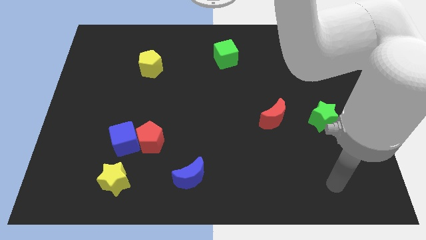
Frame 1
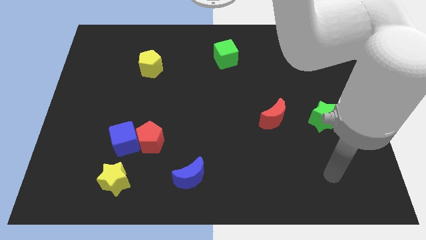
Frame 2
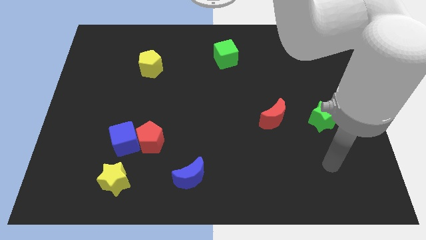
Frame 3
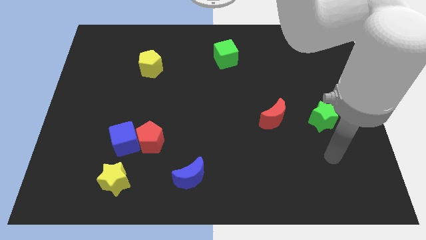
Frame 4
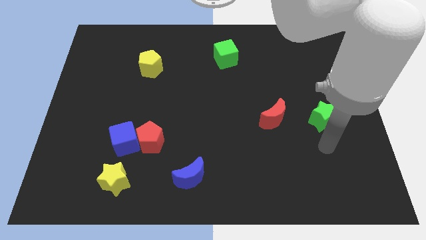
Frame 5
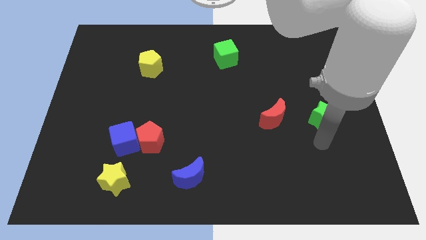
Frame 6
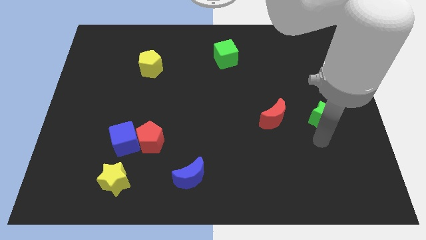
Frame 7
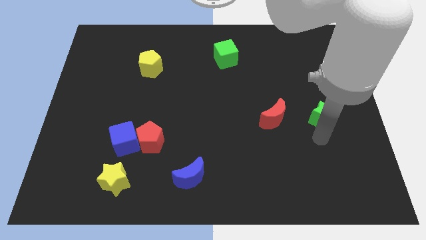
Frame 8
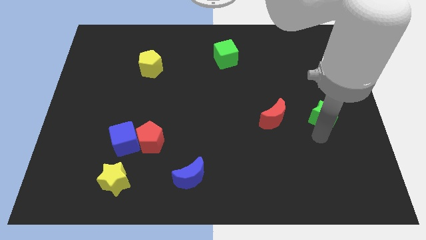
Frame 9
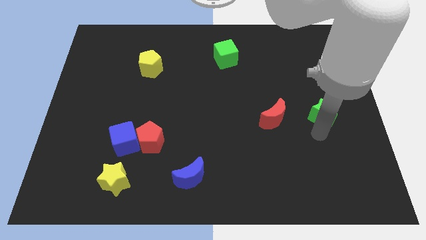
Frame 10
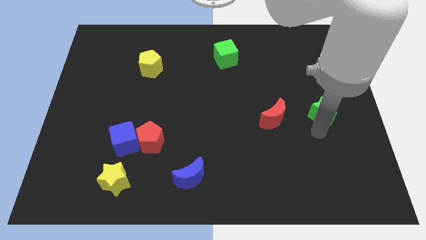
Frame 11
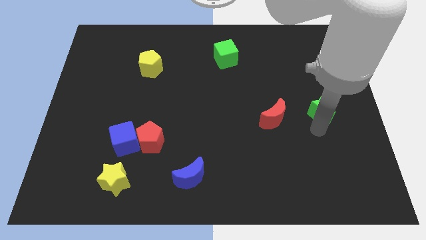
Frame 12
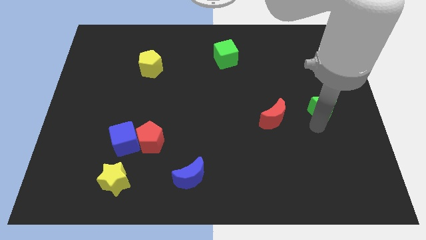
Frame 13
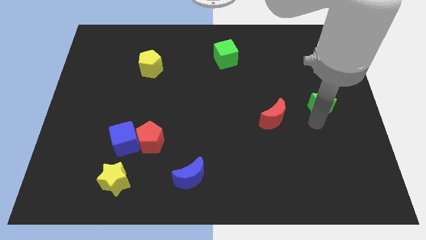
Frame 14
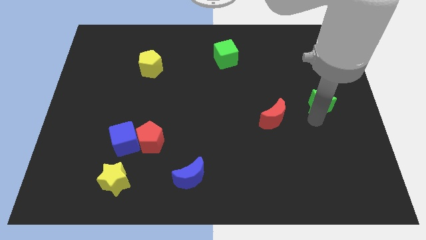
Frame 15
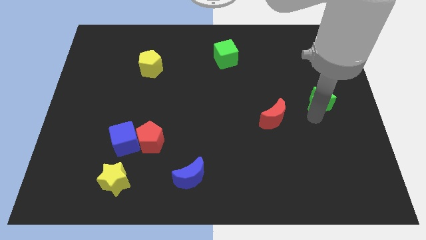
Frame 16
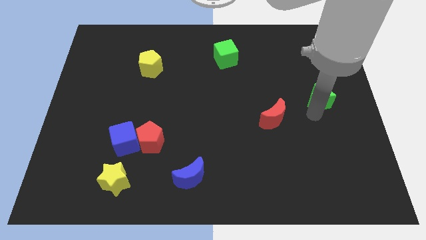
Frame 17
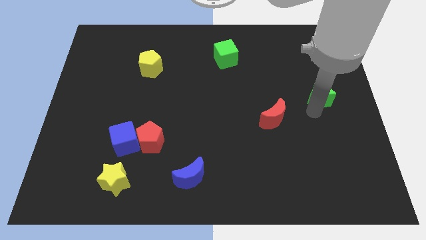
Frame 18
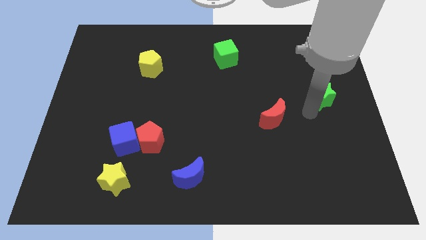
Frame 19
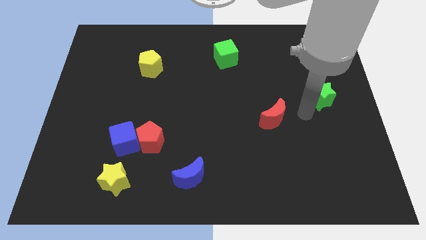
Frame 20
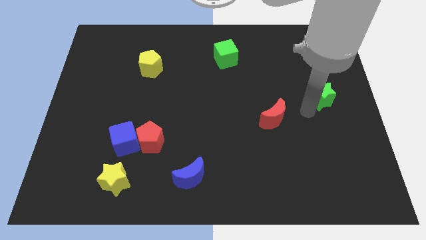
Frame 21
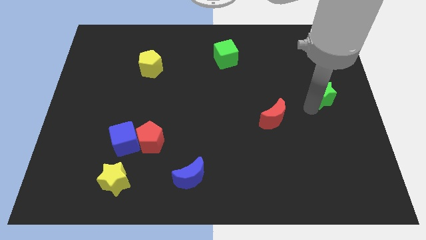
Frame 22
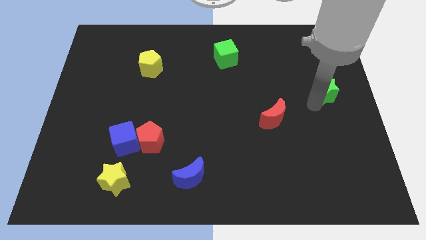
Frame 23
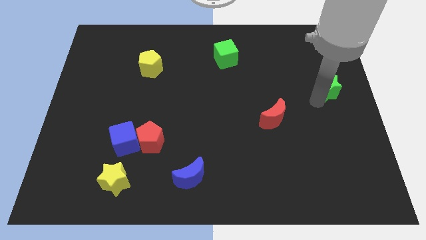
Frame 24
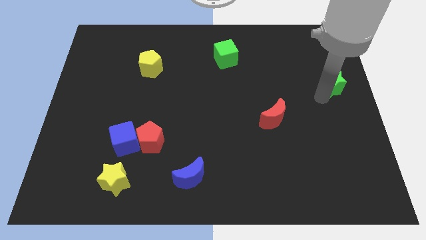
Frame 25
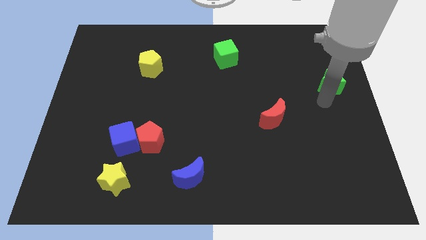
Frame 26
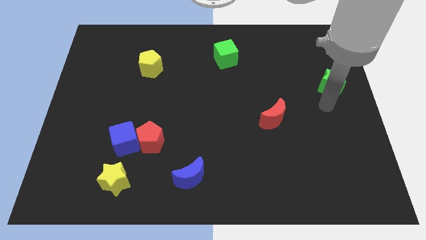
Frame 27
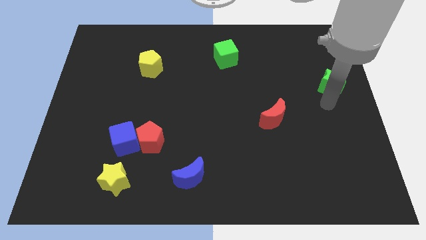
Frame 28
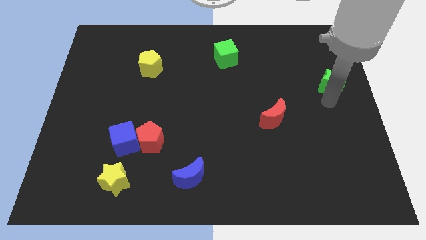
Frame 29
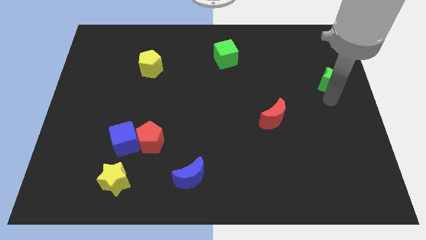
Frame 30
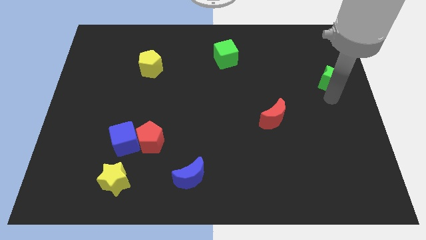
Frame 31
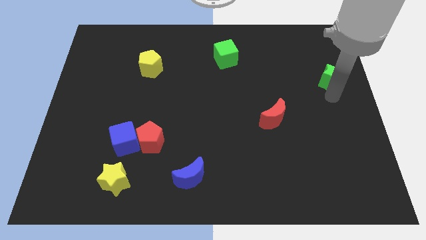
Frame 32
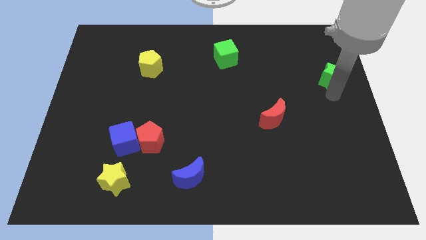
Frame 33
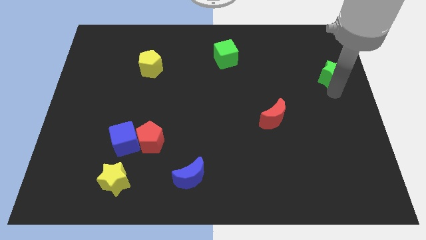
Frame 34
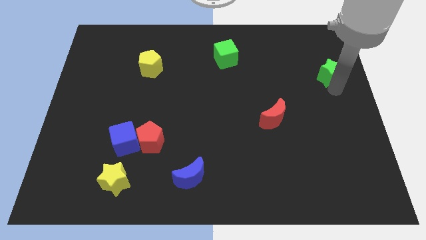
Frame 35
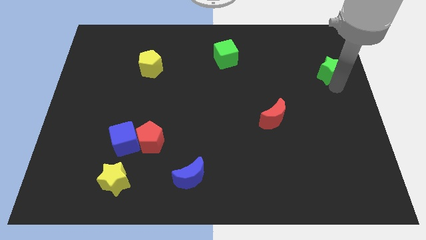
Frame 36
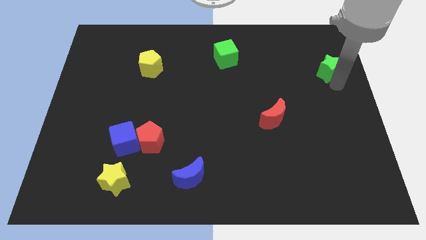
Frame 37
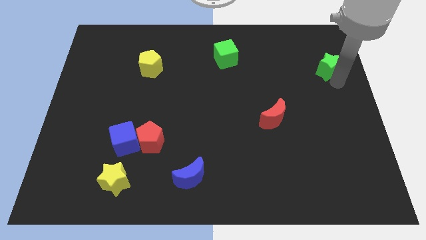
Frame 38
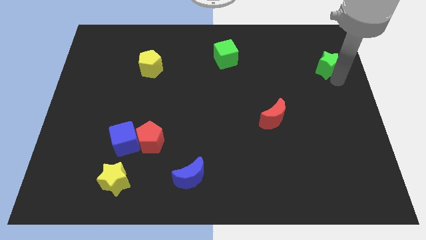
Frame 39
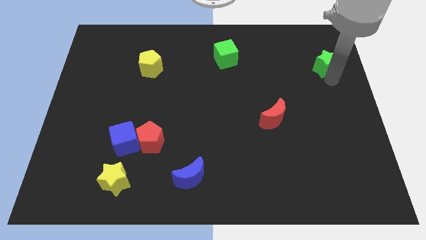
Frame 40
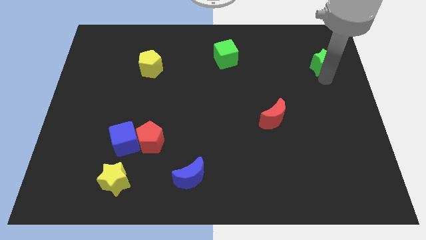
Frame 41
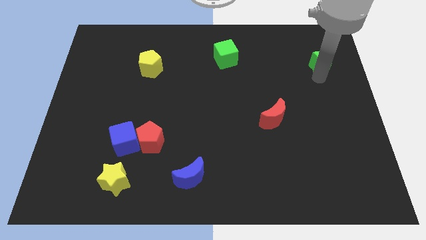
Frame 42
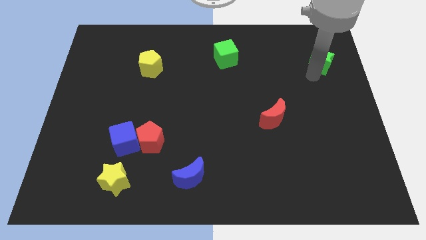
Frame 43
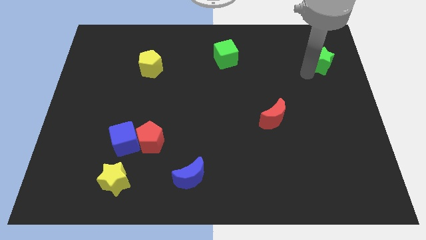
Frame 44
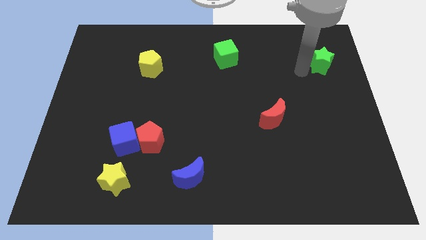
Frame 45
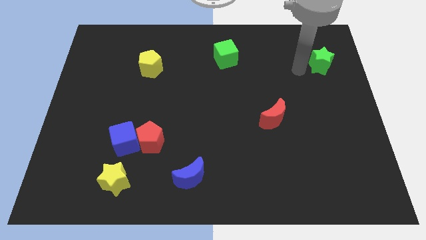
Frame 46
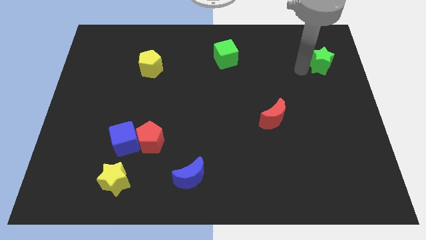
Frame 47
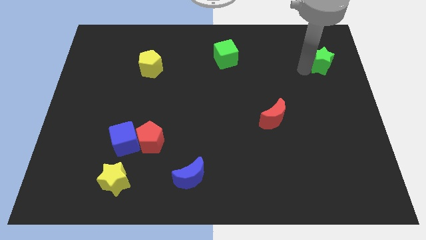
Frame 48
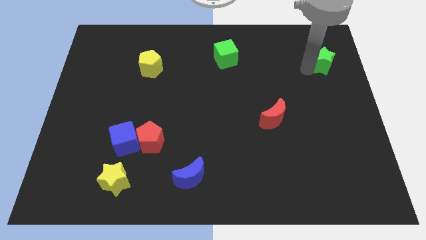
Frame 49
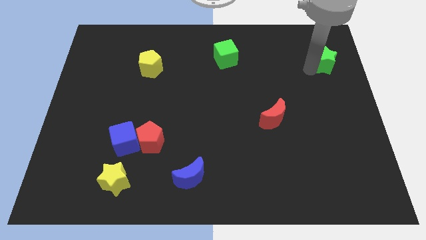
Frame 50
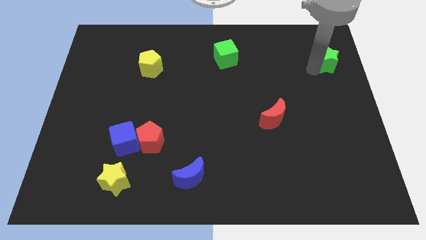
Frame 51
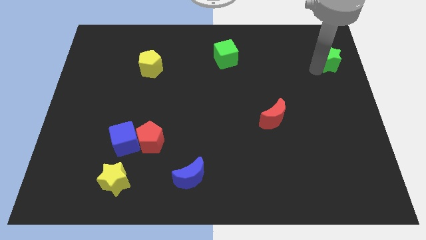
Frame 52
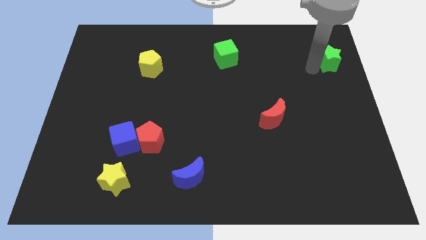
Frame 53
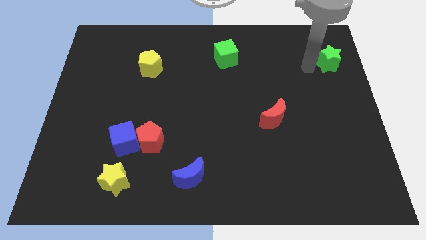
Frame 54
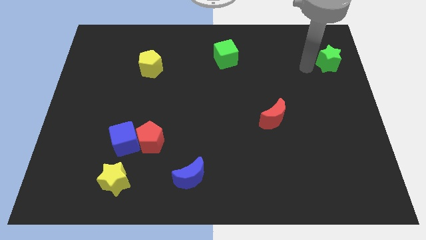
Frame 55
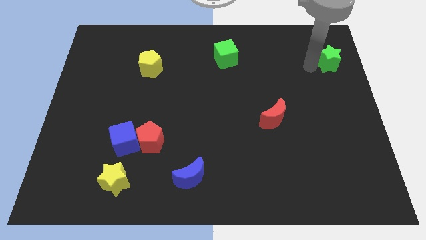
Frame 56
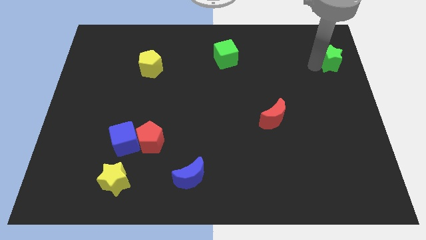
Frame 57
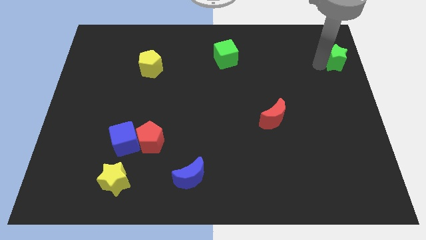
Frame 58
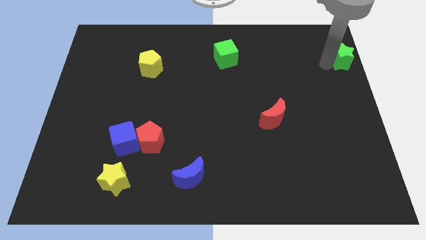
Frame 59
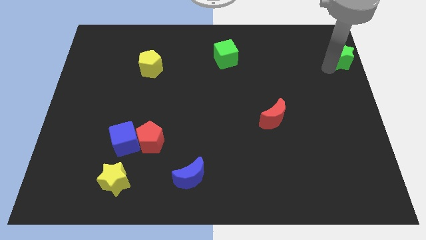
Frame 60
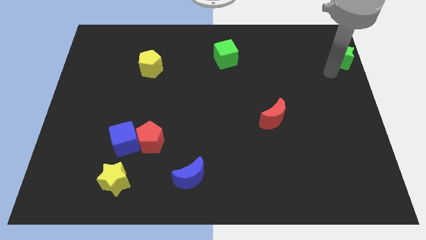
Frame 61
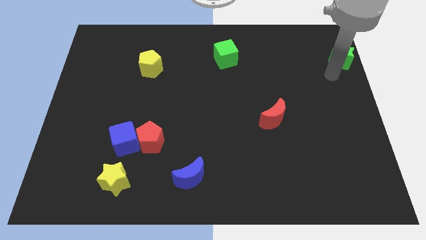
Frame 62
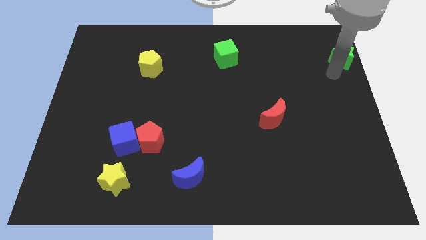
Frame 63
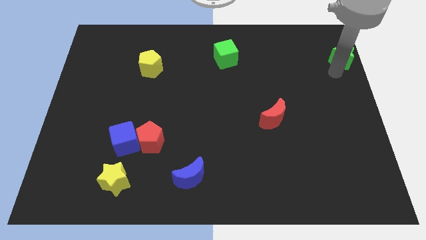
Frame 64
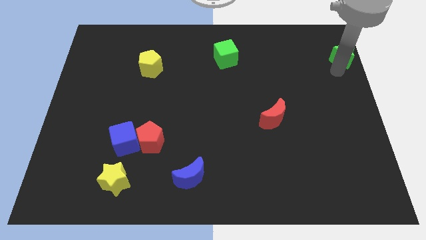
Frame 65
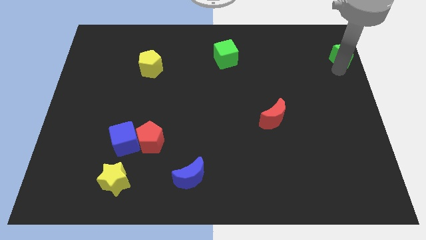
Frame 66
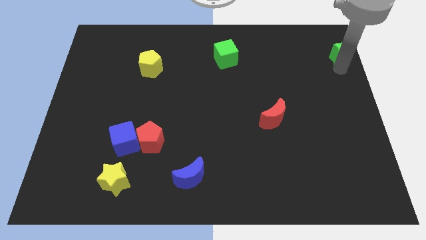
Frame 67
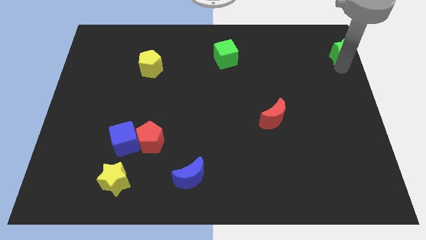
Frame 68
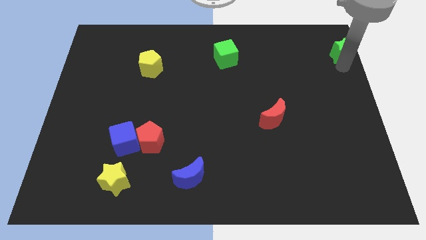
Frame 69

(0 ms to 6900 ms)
put the green star to the top right corner

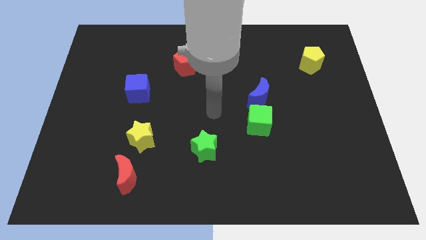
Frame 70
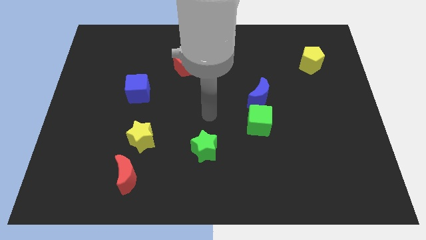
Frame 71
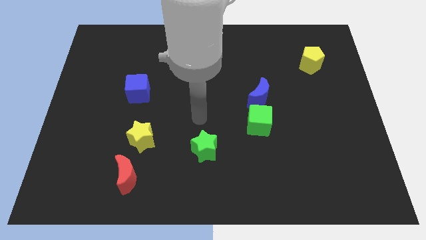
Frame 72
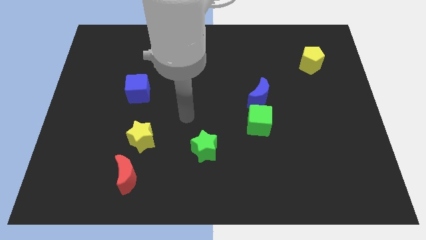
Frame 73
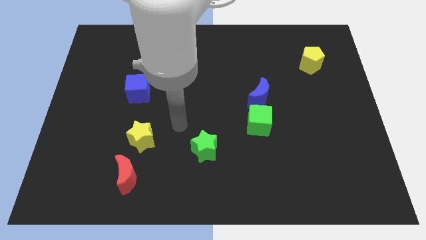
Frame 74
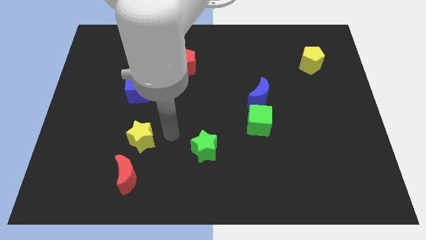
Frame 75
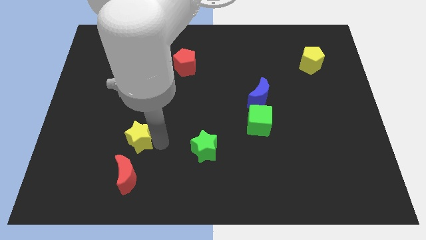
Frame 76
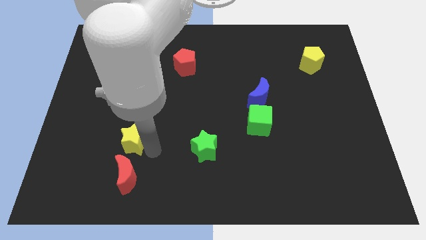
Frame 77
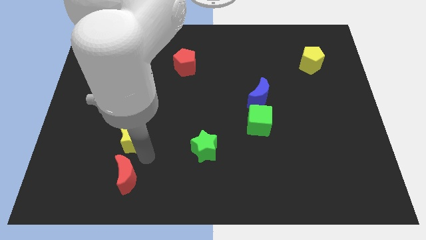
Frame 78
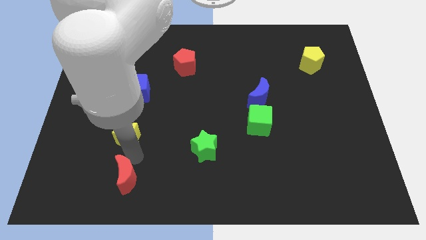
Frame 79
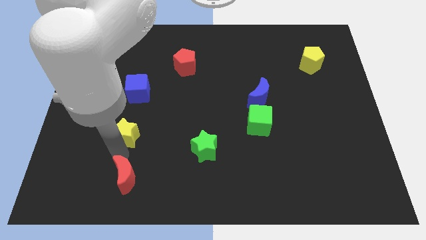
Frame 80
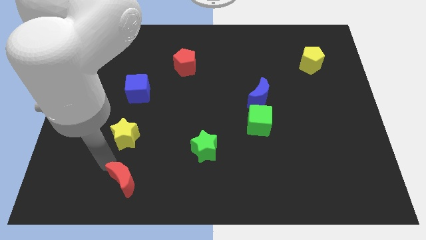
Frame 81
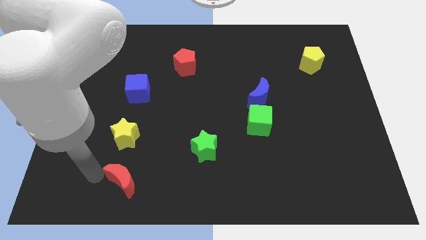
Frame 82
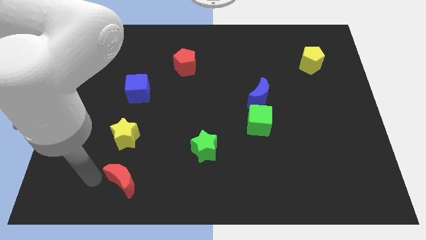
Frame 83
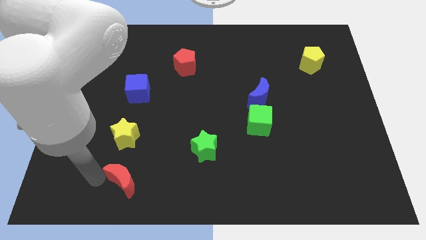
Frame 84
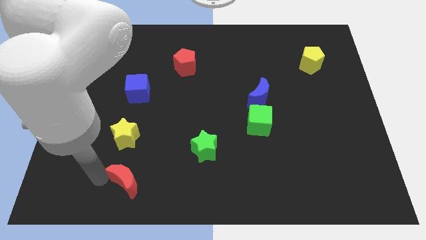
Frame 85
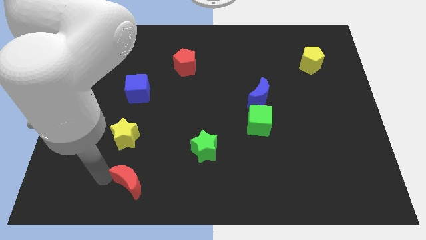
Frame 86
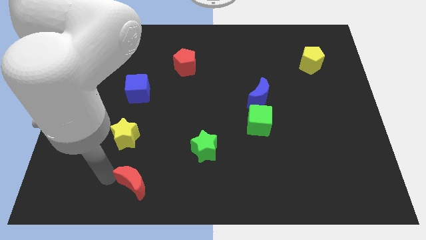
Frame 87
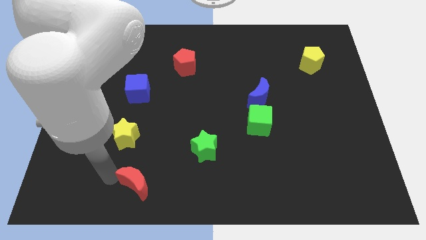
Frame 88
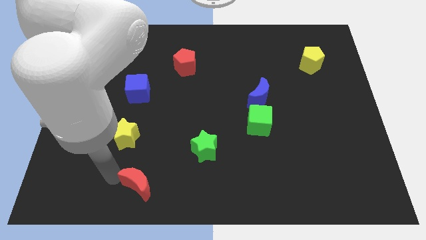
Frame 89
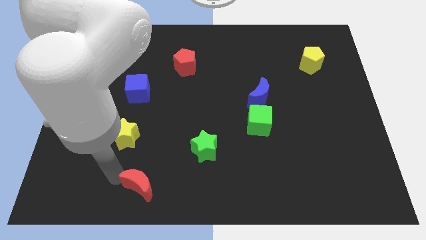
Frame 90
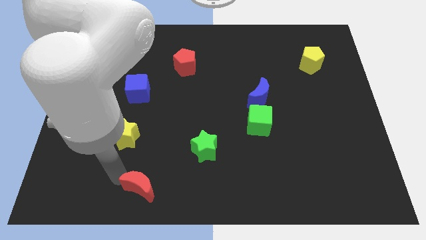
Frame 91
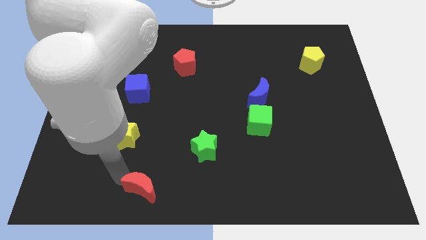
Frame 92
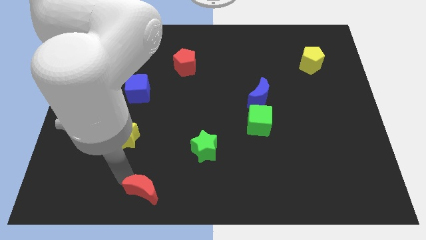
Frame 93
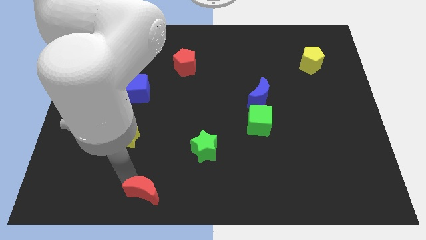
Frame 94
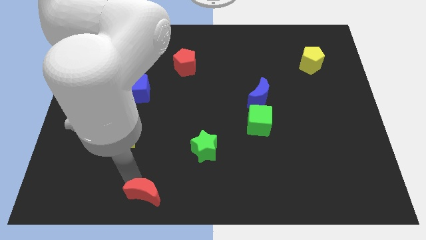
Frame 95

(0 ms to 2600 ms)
push the red moon to the bottom side
